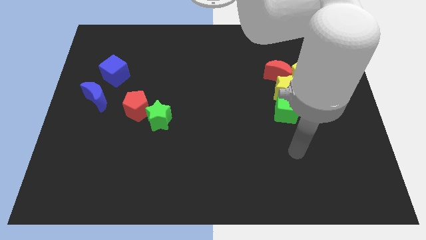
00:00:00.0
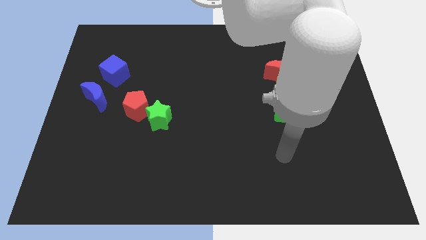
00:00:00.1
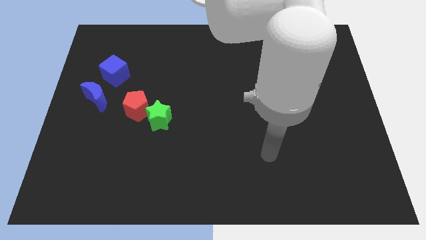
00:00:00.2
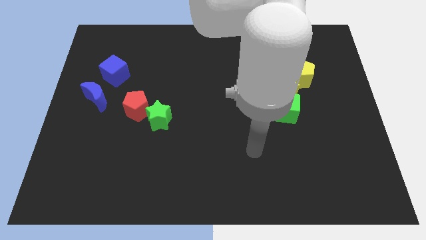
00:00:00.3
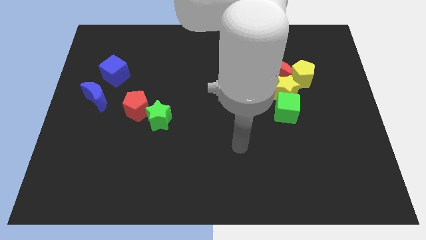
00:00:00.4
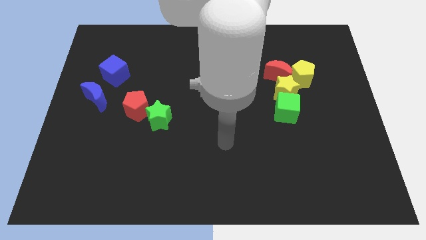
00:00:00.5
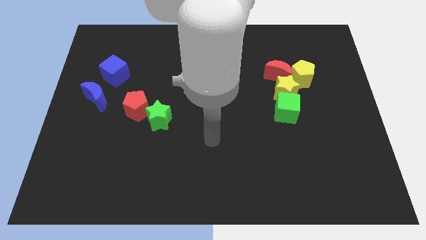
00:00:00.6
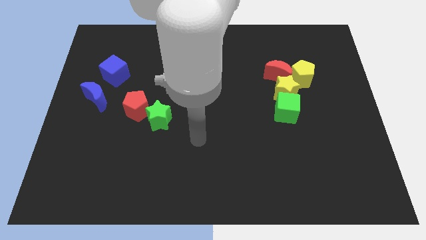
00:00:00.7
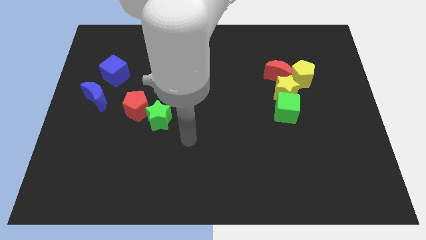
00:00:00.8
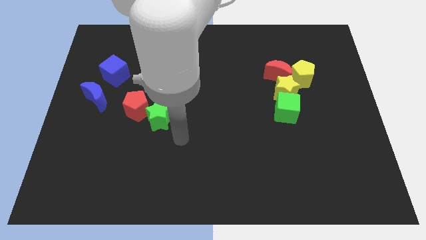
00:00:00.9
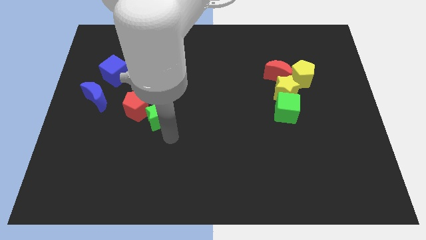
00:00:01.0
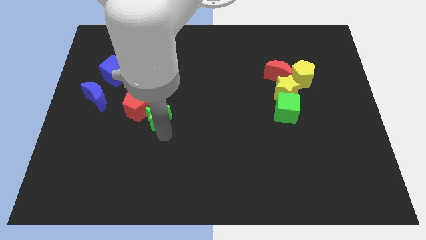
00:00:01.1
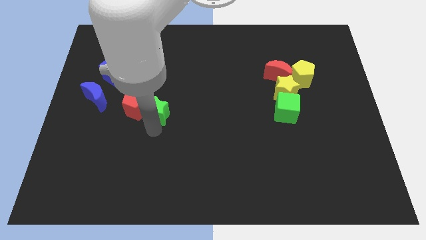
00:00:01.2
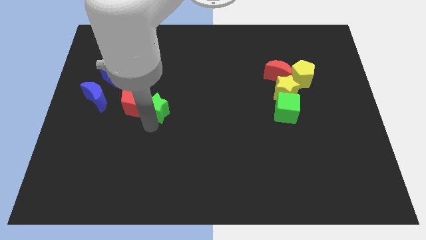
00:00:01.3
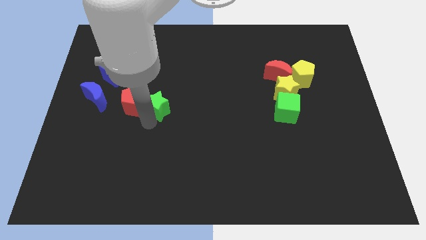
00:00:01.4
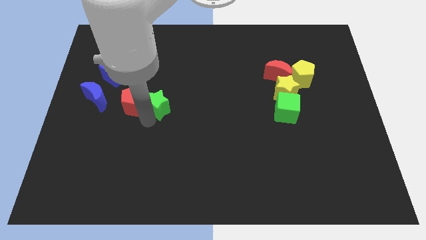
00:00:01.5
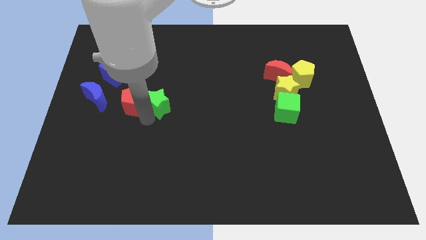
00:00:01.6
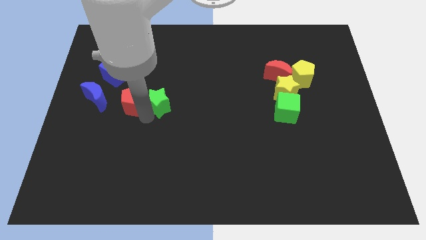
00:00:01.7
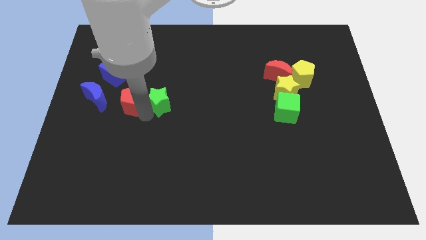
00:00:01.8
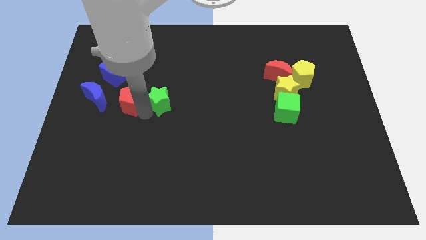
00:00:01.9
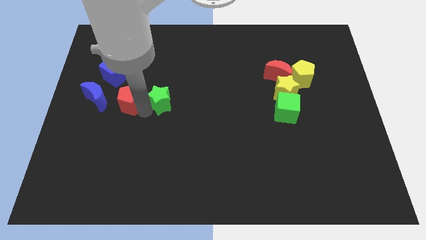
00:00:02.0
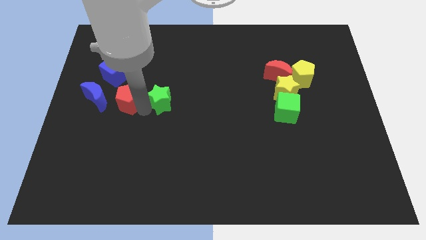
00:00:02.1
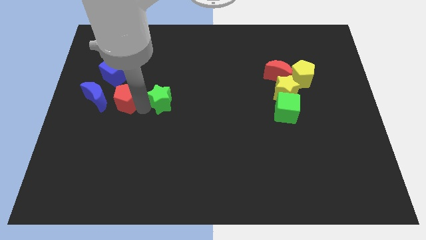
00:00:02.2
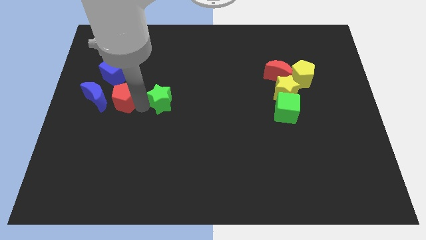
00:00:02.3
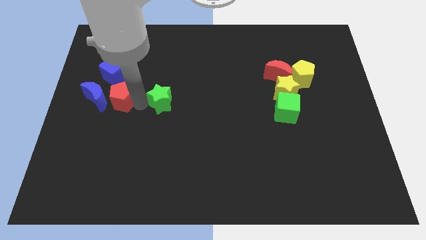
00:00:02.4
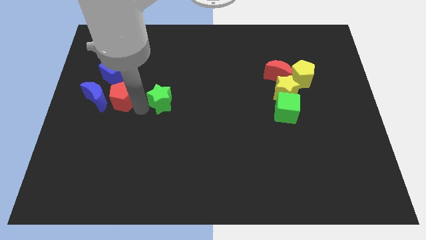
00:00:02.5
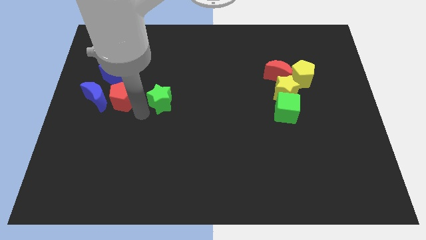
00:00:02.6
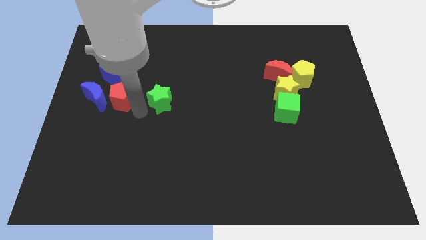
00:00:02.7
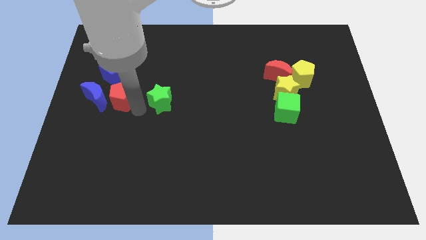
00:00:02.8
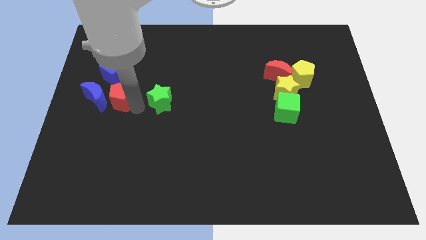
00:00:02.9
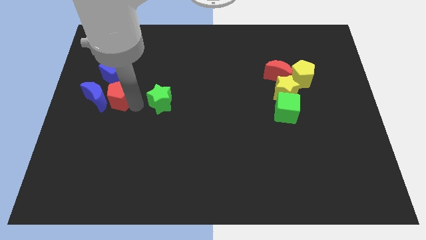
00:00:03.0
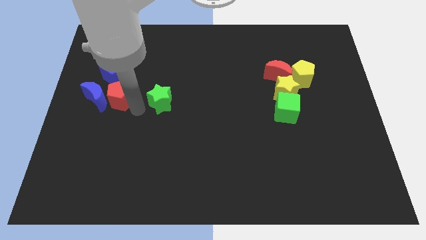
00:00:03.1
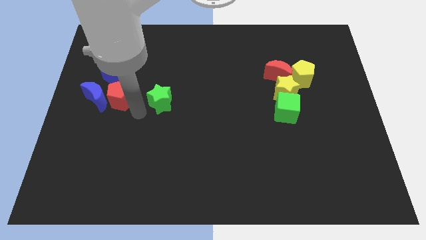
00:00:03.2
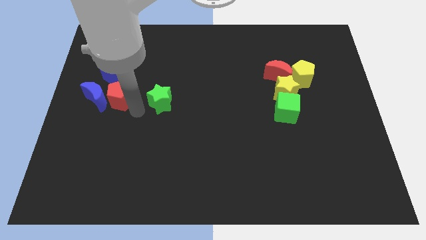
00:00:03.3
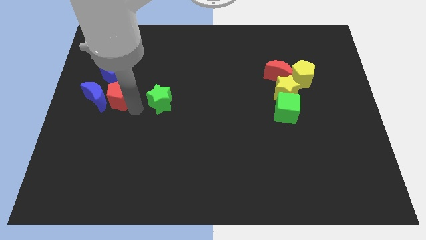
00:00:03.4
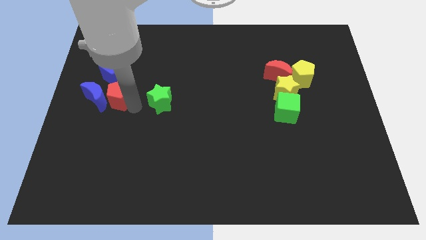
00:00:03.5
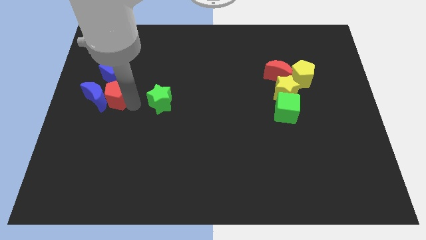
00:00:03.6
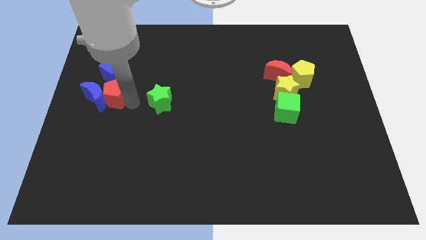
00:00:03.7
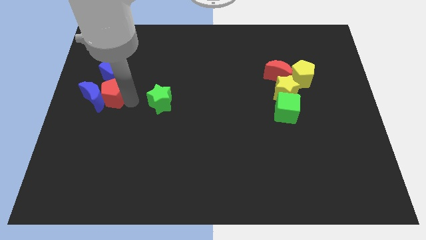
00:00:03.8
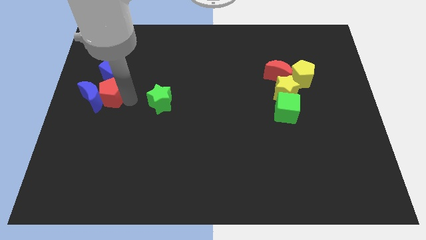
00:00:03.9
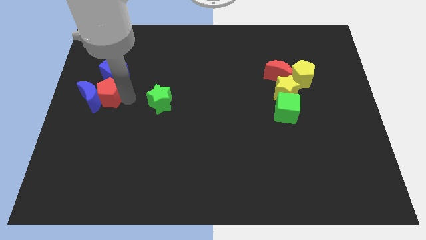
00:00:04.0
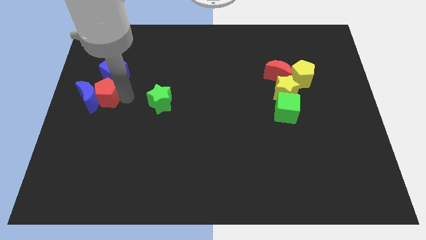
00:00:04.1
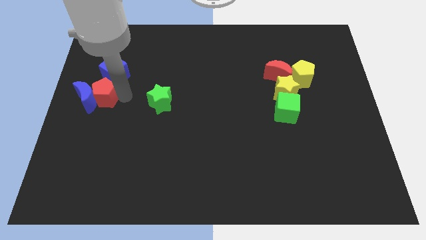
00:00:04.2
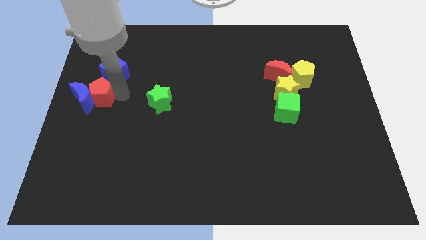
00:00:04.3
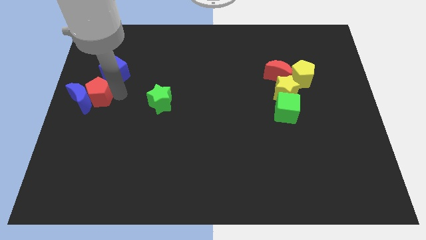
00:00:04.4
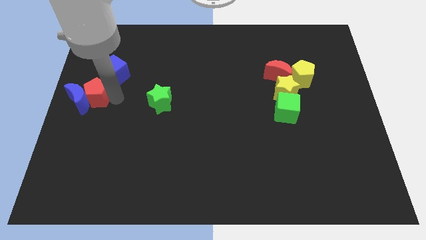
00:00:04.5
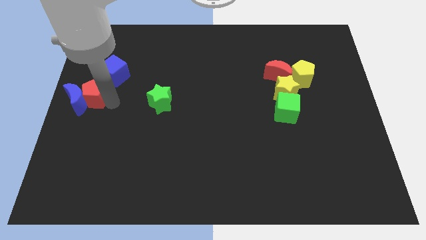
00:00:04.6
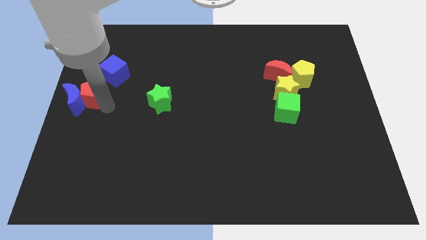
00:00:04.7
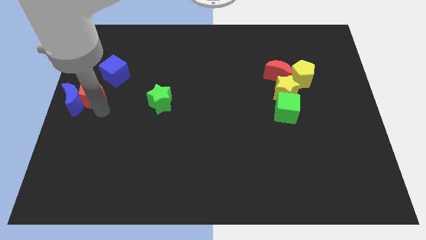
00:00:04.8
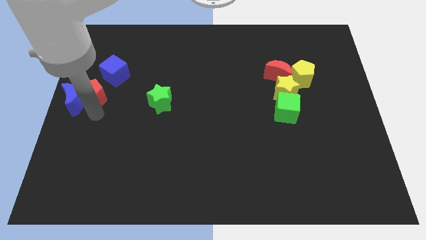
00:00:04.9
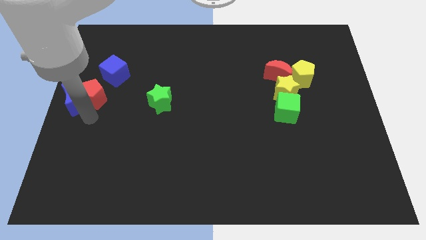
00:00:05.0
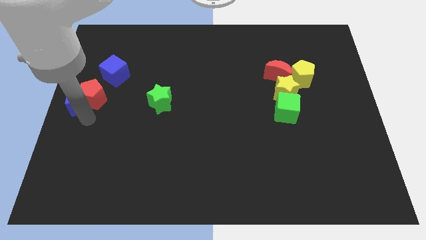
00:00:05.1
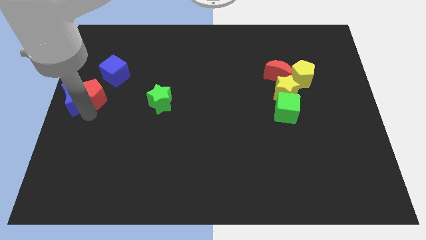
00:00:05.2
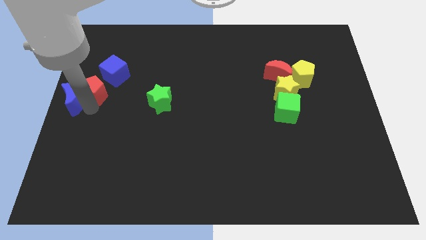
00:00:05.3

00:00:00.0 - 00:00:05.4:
slide the red pentagon to the top of the blue moon

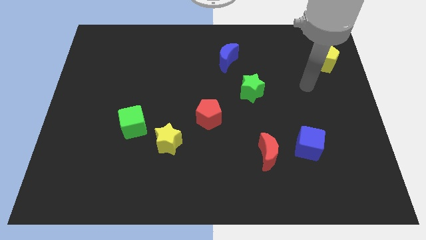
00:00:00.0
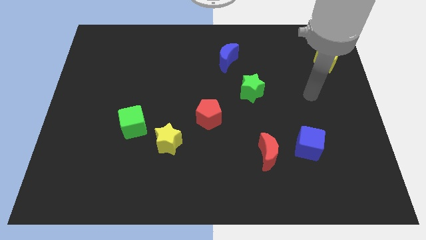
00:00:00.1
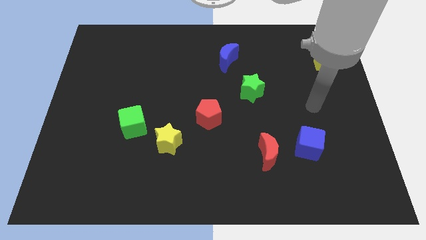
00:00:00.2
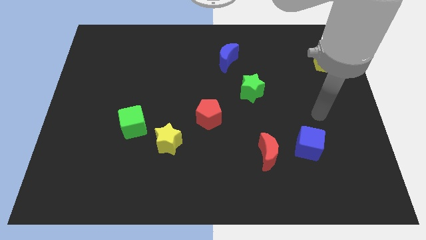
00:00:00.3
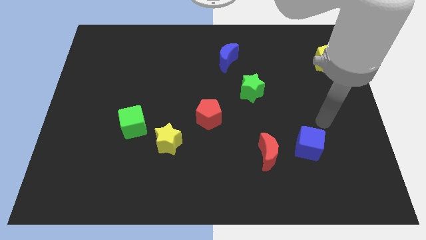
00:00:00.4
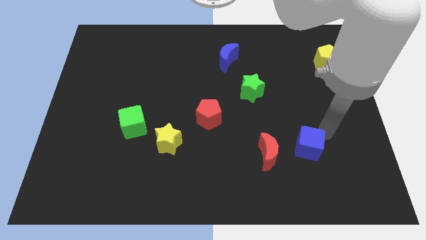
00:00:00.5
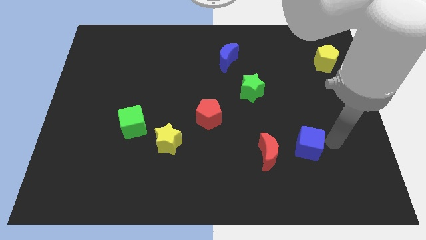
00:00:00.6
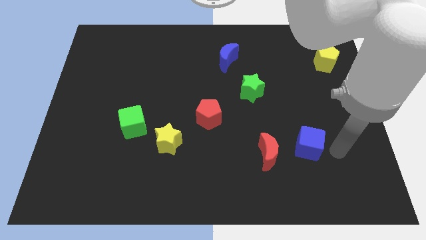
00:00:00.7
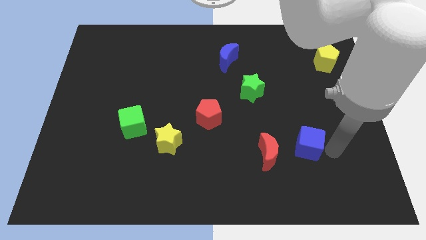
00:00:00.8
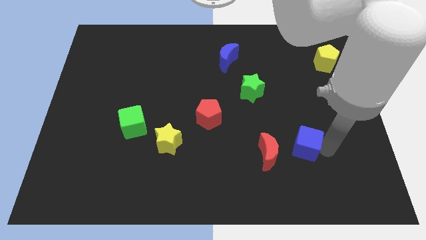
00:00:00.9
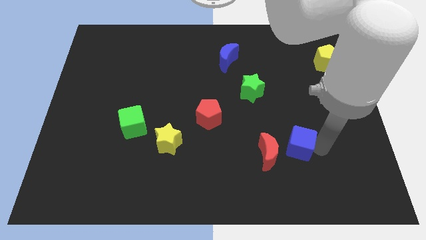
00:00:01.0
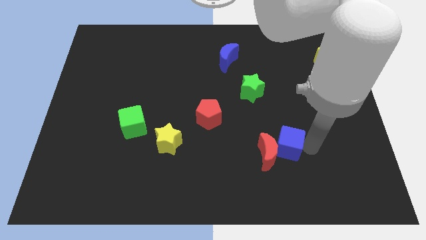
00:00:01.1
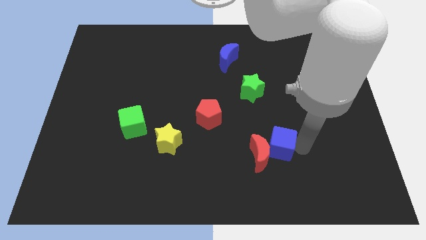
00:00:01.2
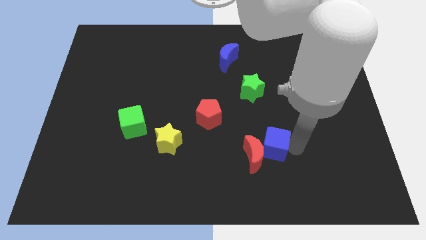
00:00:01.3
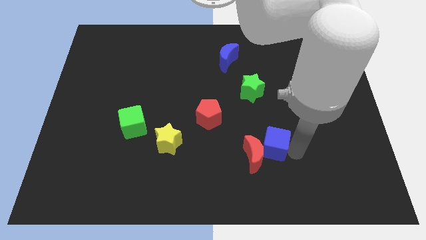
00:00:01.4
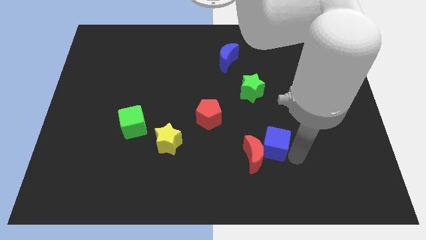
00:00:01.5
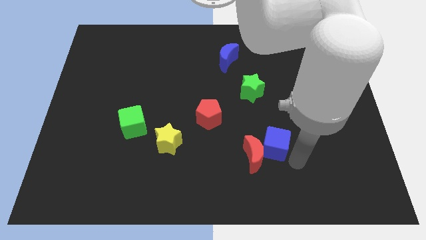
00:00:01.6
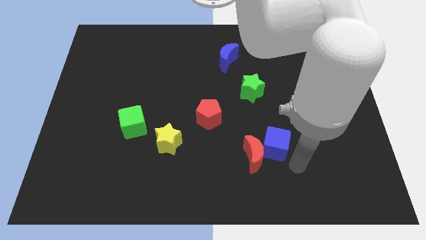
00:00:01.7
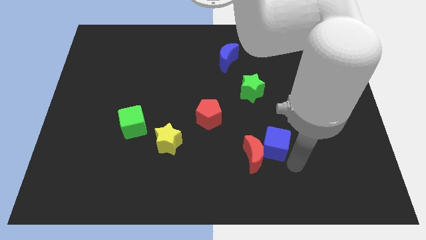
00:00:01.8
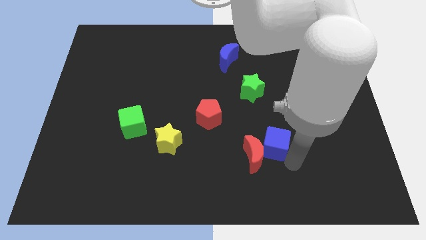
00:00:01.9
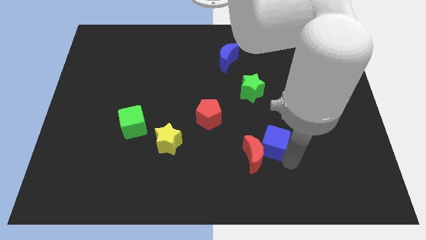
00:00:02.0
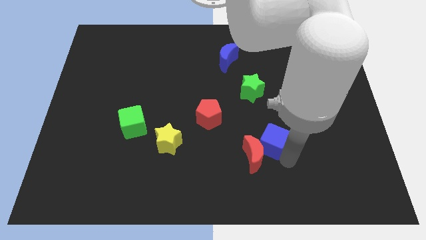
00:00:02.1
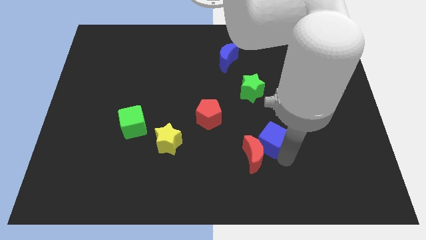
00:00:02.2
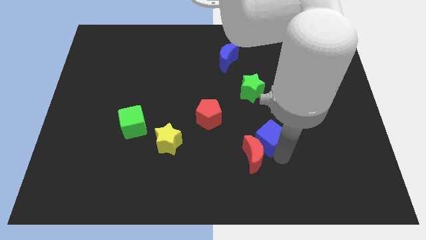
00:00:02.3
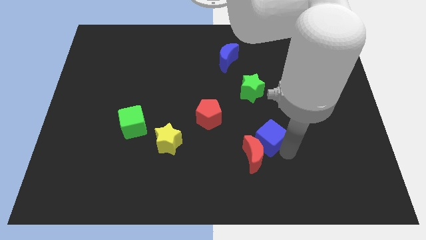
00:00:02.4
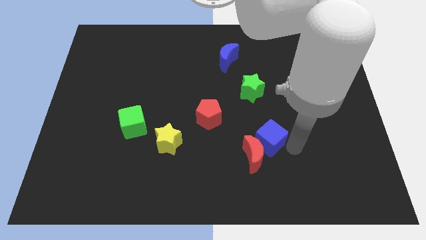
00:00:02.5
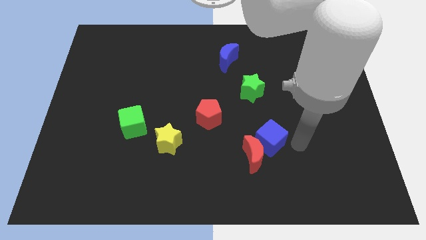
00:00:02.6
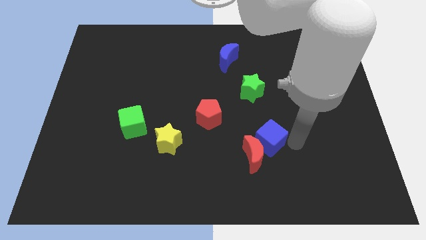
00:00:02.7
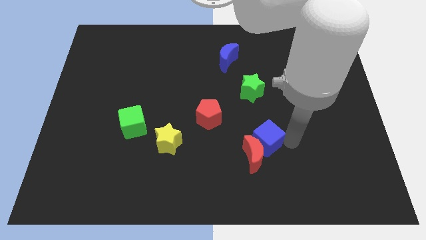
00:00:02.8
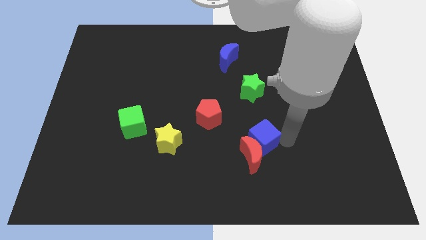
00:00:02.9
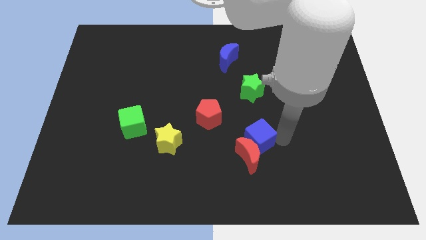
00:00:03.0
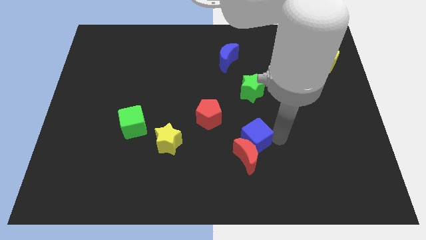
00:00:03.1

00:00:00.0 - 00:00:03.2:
put the blue cube to the top left side of the red moon
